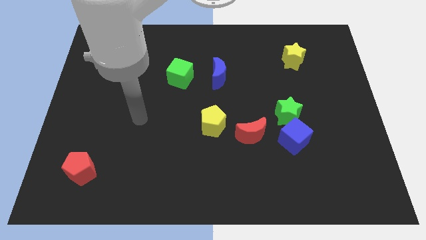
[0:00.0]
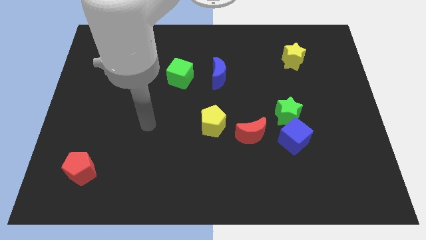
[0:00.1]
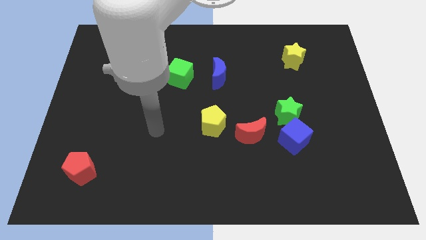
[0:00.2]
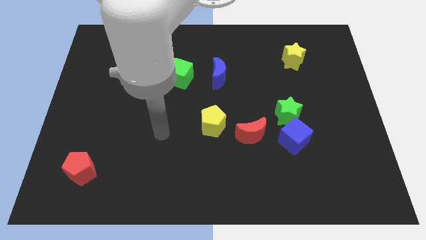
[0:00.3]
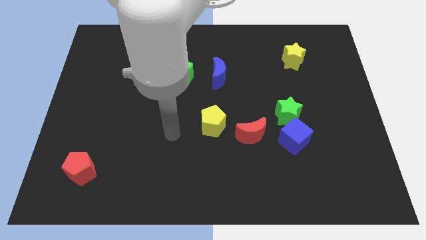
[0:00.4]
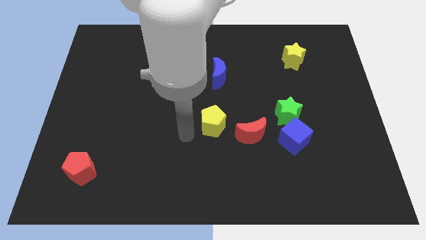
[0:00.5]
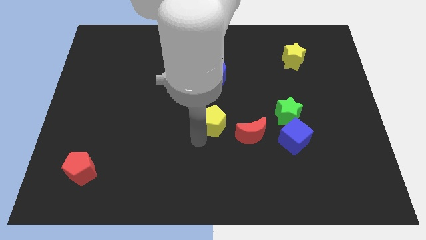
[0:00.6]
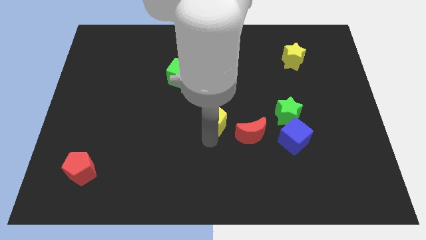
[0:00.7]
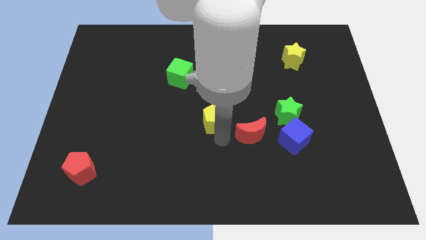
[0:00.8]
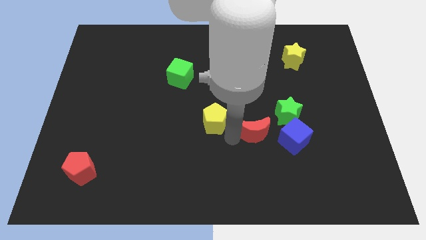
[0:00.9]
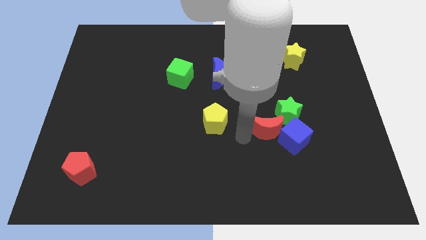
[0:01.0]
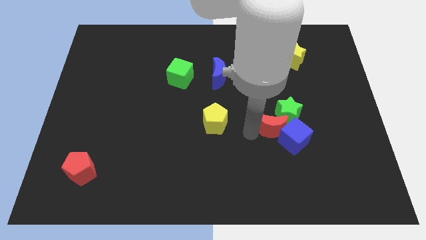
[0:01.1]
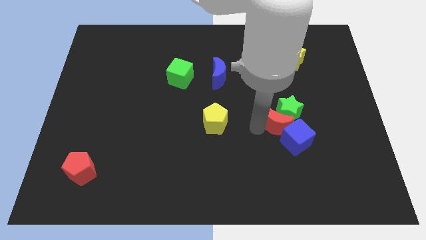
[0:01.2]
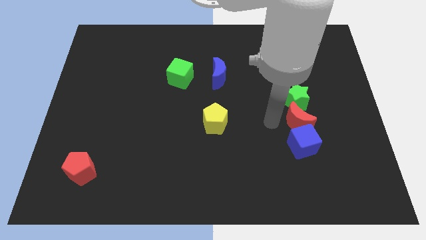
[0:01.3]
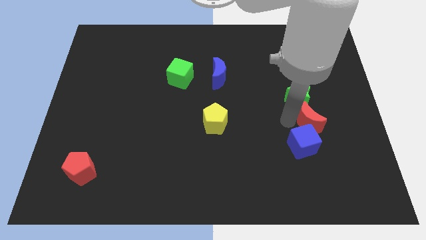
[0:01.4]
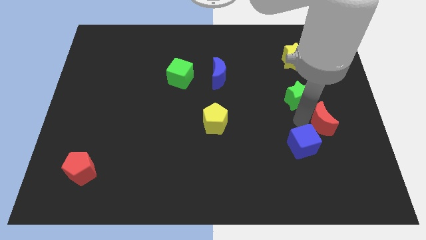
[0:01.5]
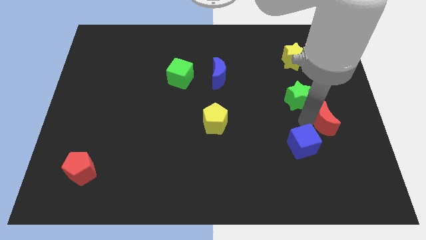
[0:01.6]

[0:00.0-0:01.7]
move the blue cube away from the green star and red moon

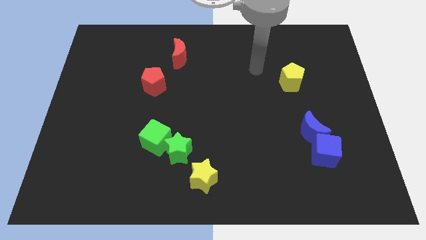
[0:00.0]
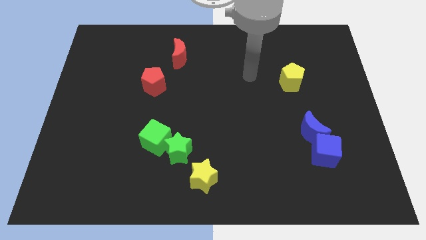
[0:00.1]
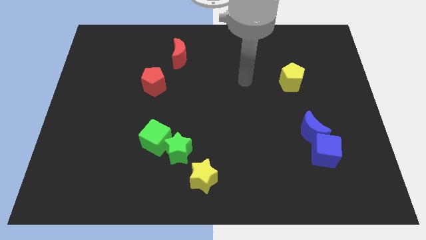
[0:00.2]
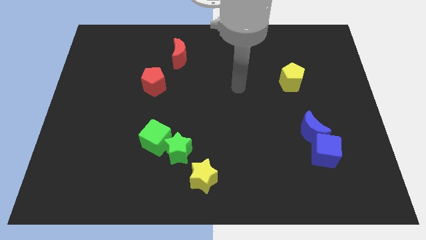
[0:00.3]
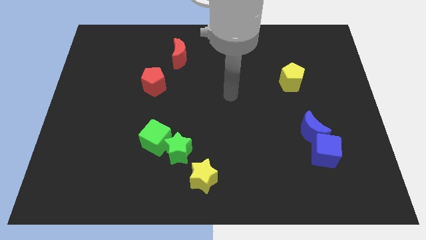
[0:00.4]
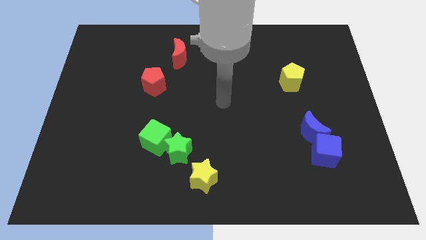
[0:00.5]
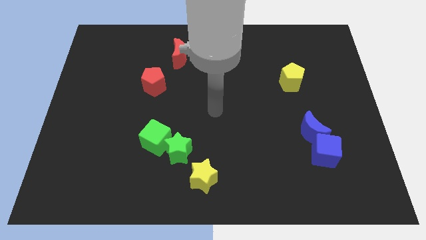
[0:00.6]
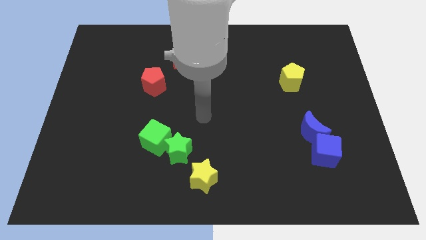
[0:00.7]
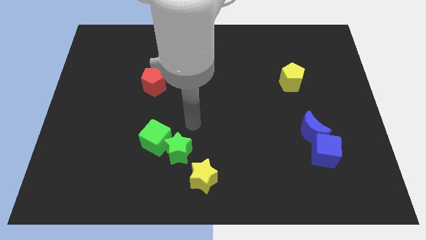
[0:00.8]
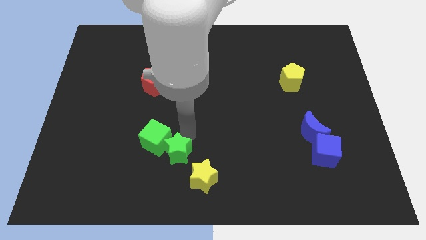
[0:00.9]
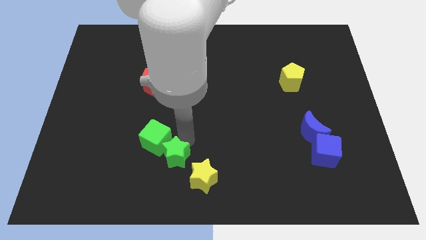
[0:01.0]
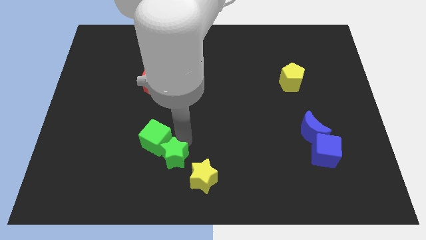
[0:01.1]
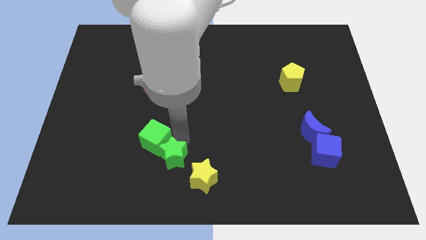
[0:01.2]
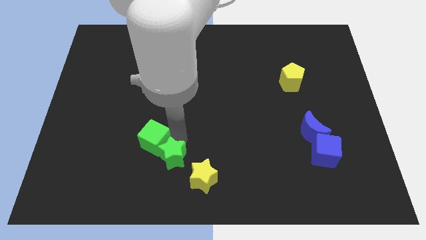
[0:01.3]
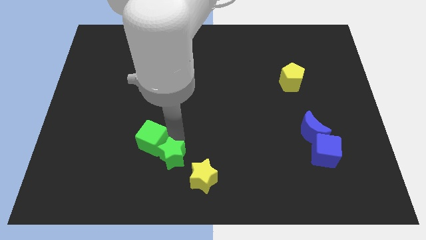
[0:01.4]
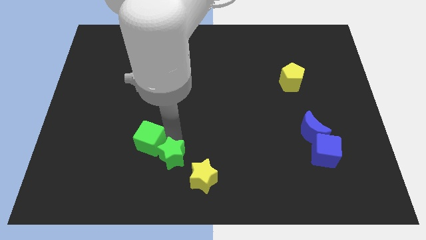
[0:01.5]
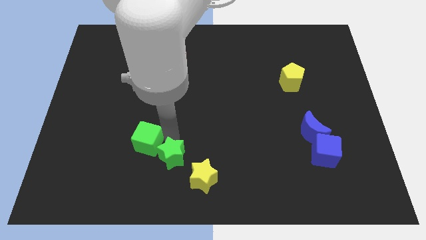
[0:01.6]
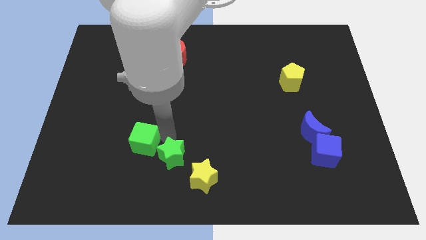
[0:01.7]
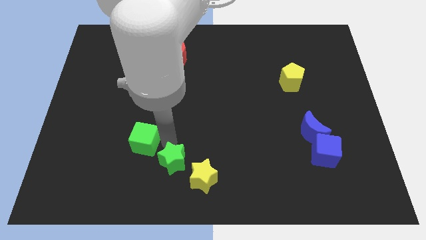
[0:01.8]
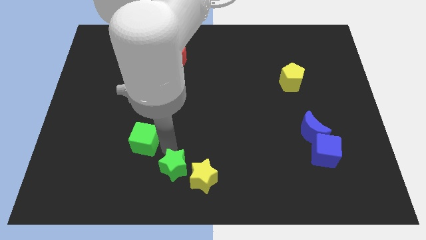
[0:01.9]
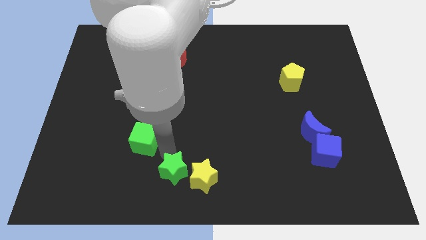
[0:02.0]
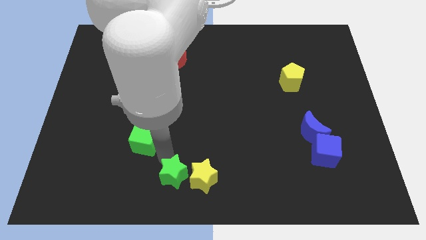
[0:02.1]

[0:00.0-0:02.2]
pull the green cube apart from the green star

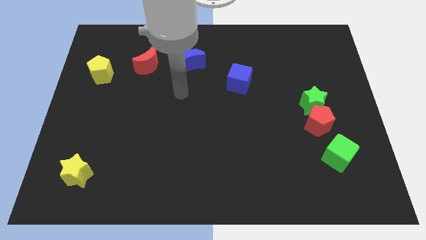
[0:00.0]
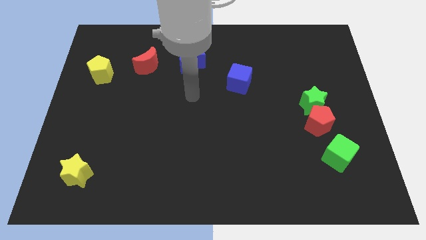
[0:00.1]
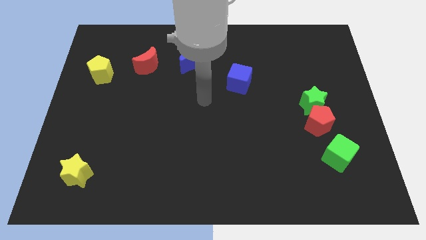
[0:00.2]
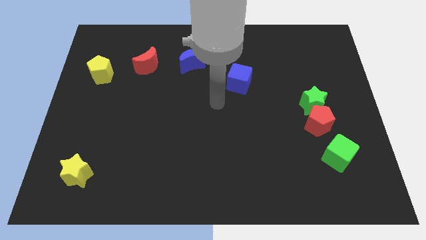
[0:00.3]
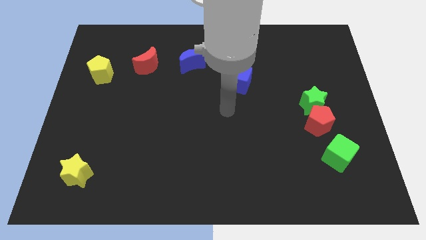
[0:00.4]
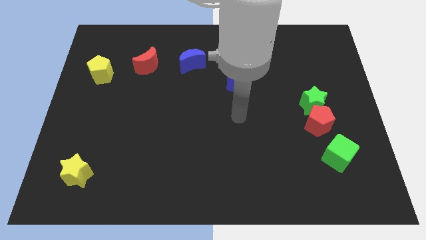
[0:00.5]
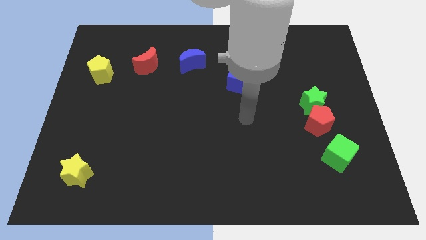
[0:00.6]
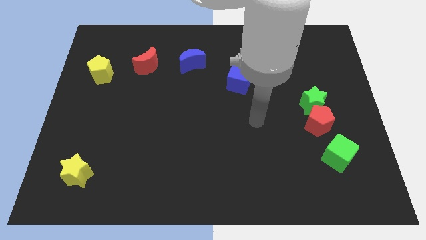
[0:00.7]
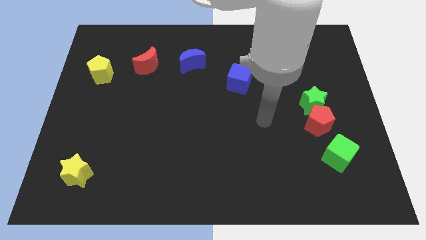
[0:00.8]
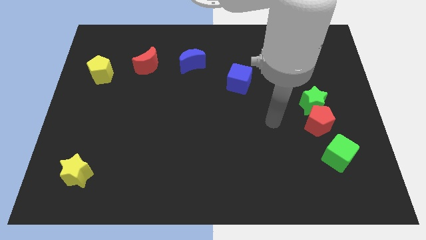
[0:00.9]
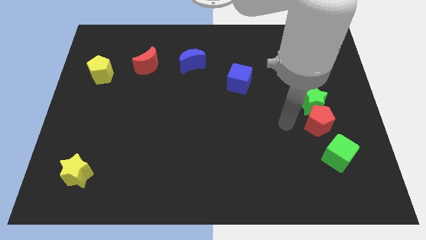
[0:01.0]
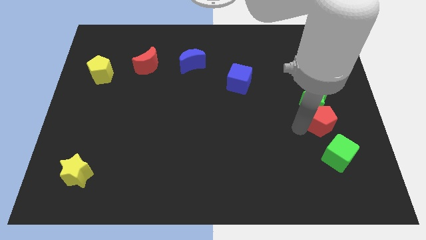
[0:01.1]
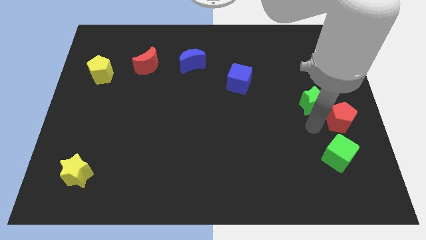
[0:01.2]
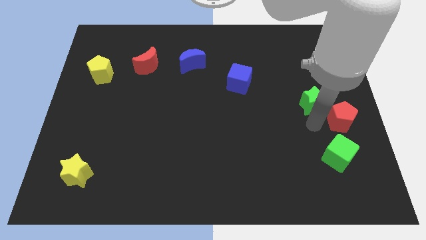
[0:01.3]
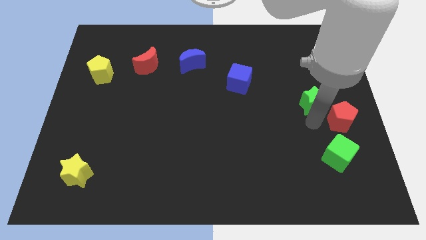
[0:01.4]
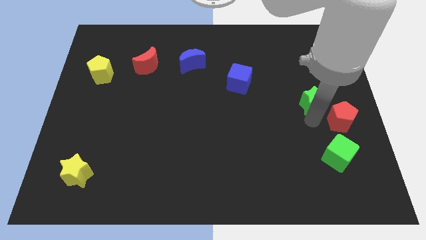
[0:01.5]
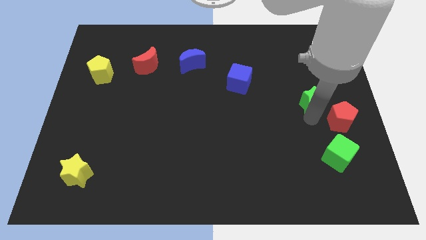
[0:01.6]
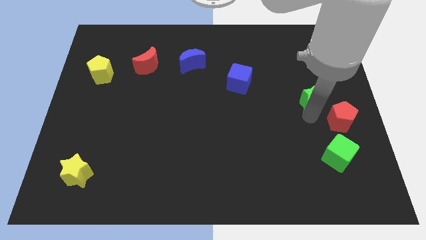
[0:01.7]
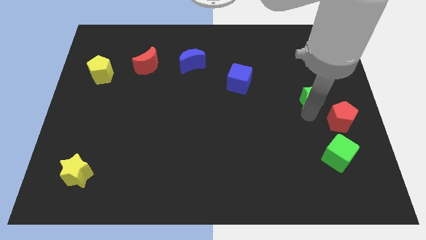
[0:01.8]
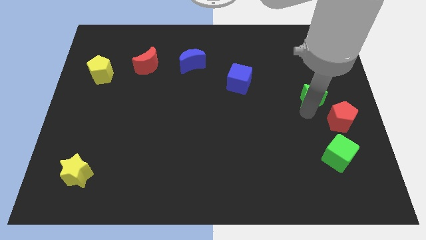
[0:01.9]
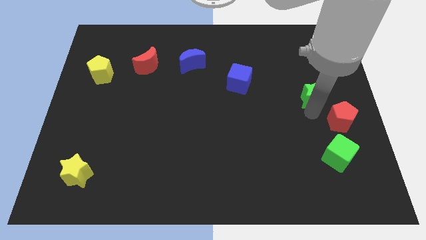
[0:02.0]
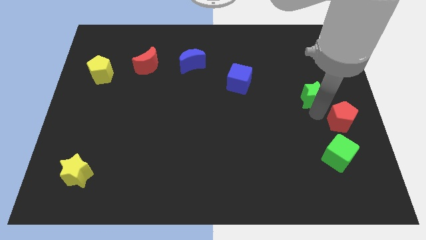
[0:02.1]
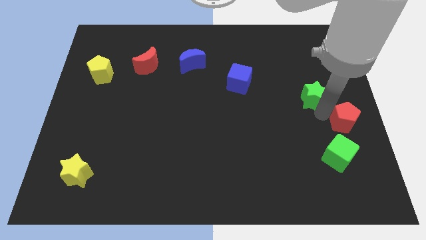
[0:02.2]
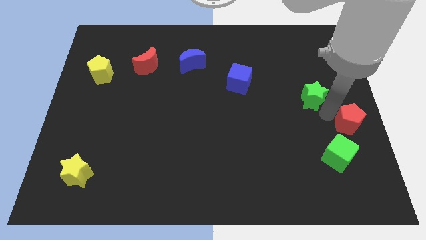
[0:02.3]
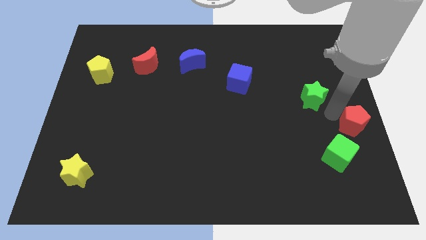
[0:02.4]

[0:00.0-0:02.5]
pull the green star apart from the red pentagon

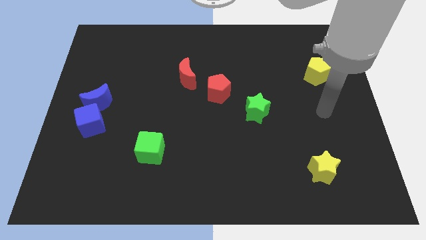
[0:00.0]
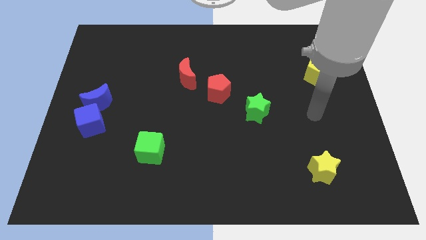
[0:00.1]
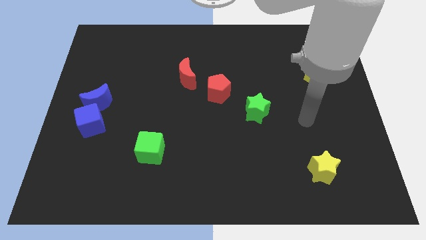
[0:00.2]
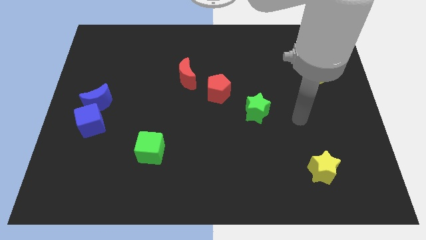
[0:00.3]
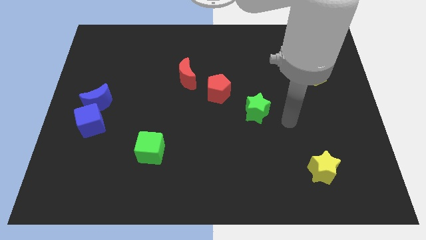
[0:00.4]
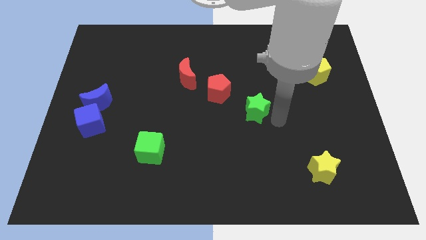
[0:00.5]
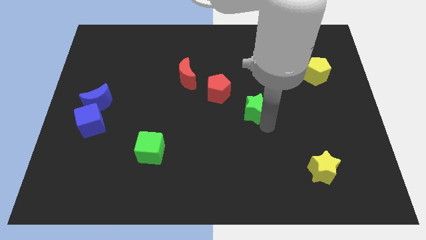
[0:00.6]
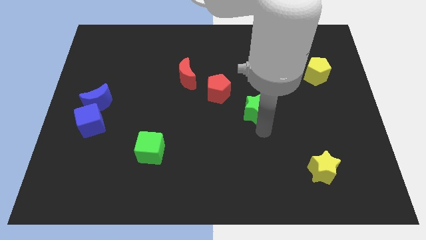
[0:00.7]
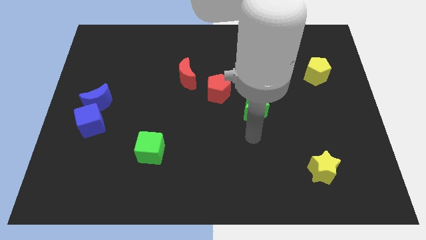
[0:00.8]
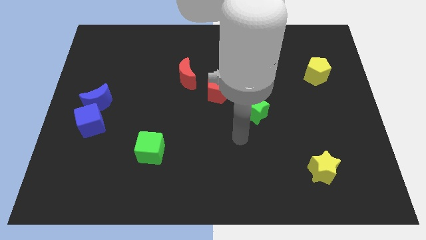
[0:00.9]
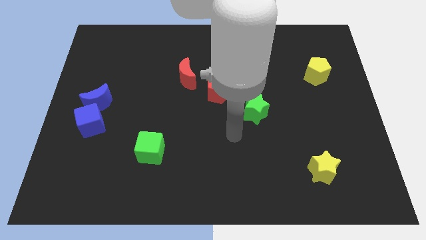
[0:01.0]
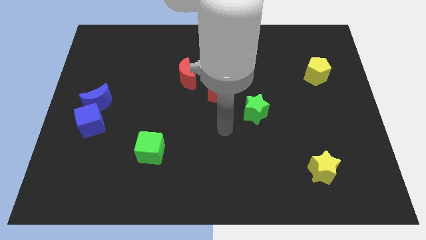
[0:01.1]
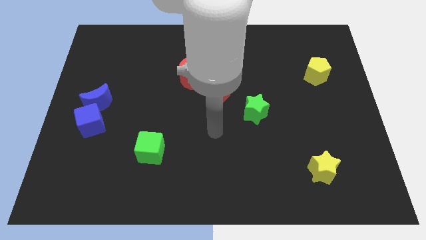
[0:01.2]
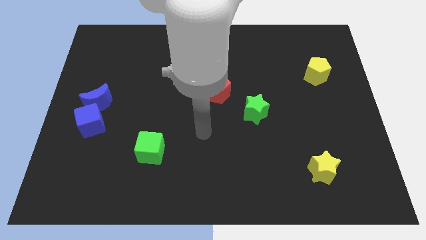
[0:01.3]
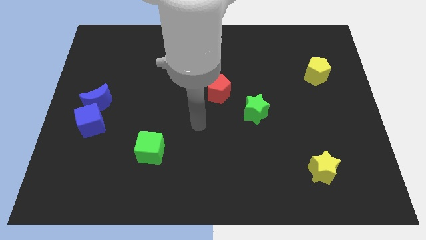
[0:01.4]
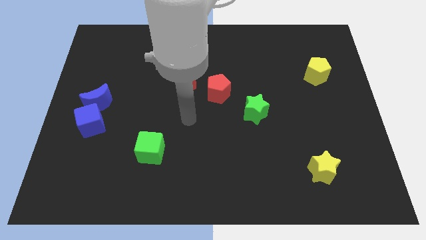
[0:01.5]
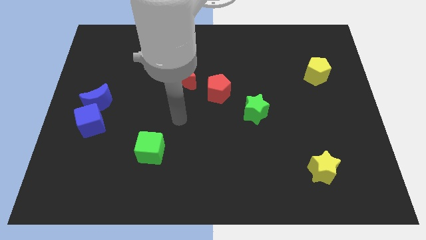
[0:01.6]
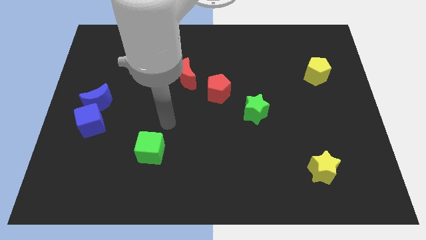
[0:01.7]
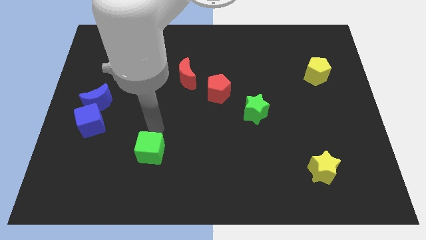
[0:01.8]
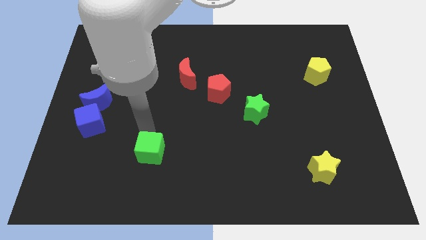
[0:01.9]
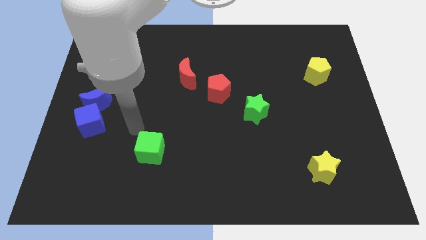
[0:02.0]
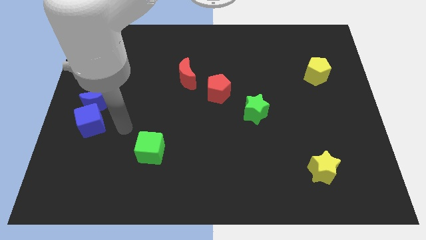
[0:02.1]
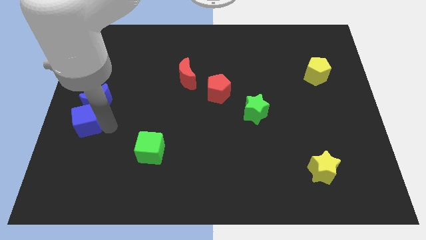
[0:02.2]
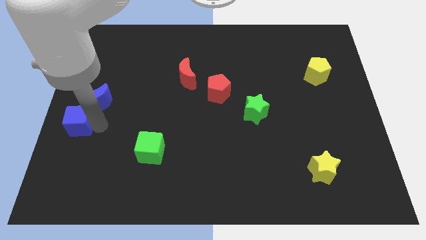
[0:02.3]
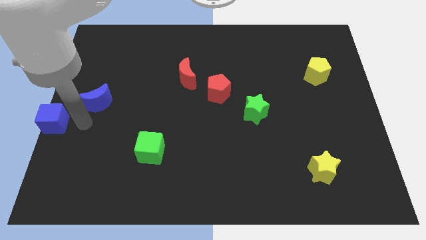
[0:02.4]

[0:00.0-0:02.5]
move the blue moon away from the blue cube

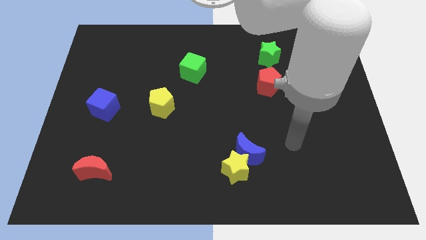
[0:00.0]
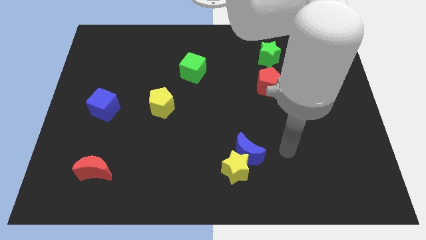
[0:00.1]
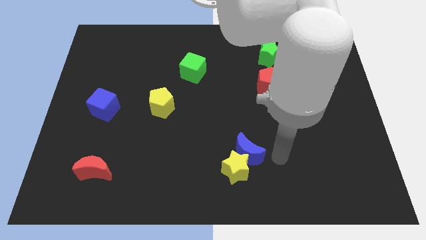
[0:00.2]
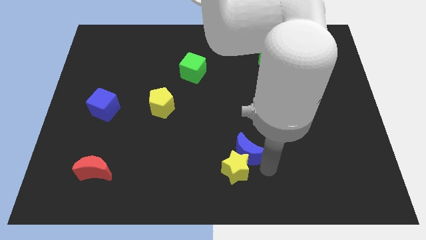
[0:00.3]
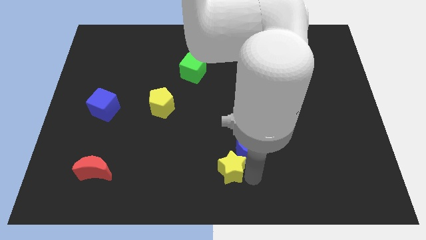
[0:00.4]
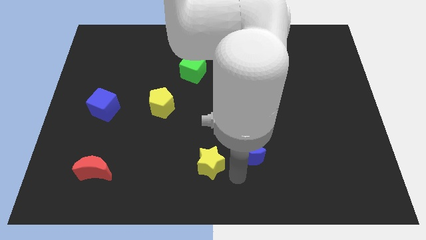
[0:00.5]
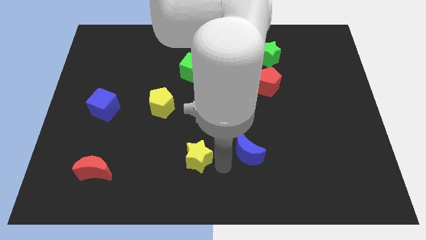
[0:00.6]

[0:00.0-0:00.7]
move the blue moon away from the yellow star
